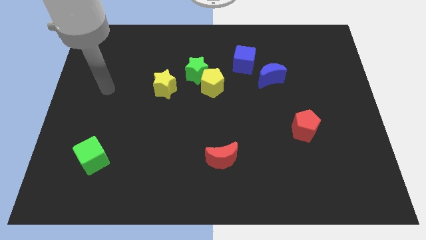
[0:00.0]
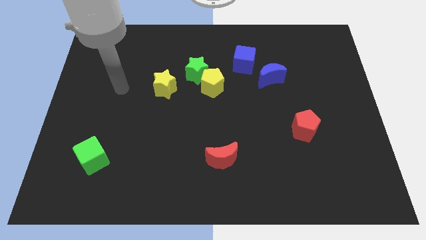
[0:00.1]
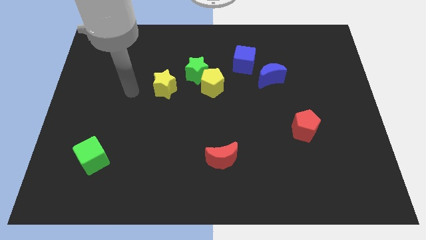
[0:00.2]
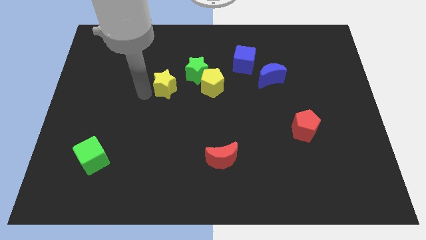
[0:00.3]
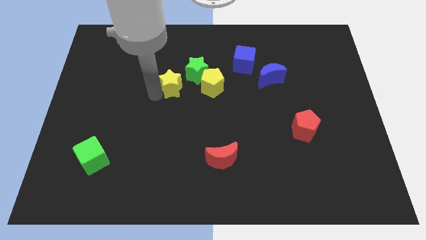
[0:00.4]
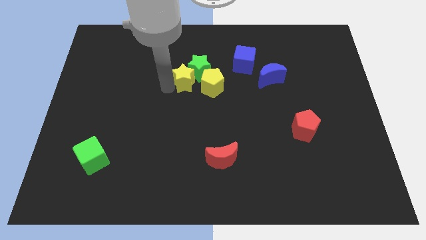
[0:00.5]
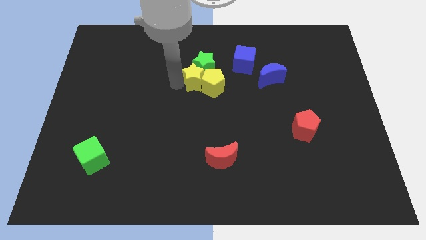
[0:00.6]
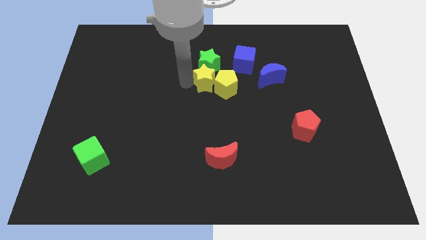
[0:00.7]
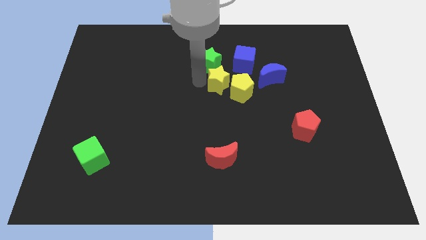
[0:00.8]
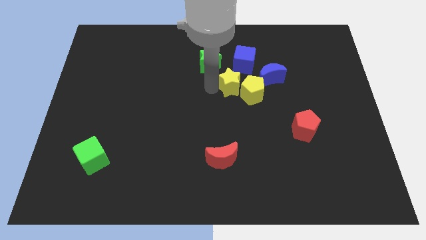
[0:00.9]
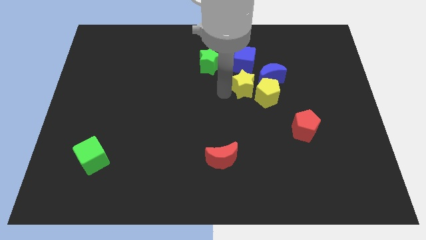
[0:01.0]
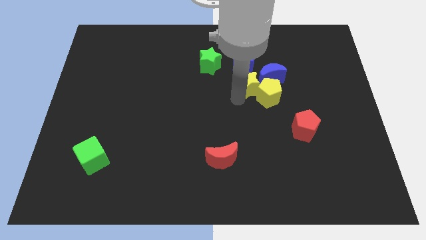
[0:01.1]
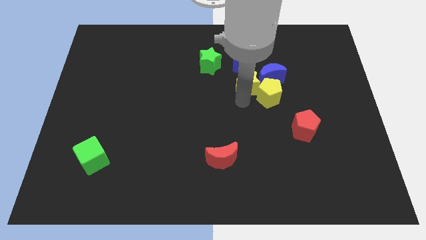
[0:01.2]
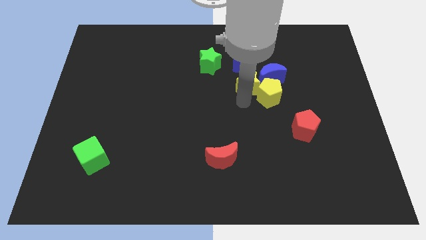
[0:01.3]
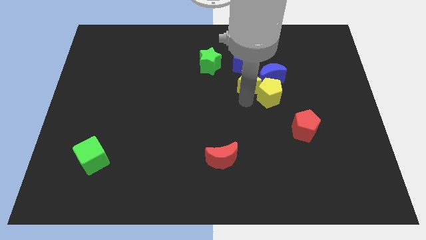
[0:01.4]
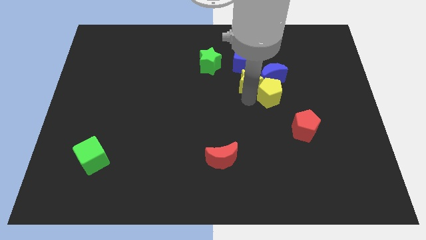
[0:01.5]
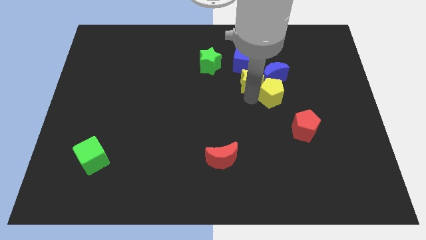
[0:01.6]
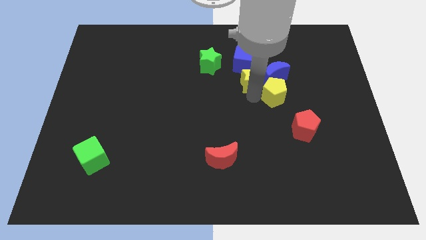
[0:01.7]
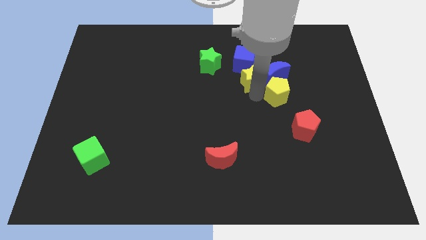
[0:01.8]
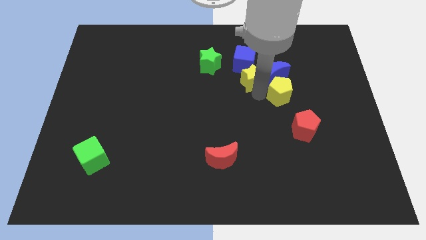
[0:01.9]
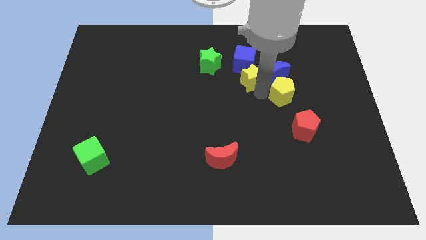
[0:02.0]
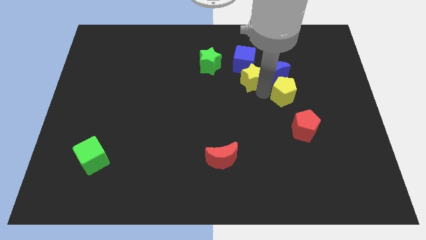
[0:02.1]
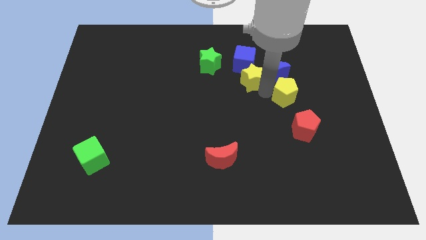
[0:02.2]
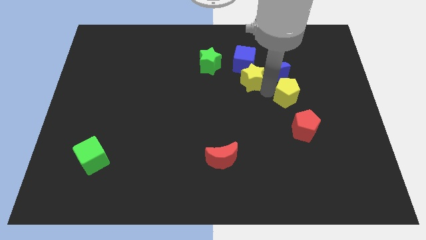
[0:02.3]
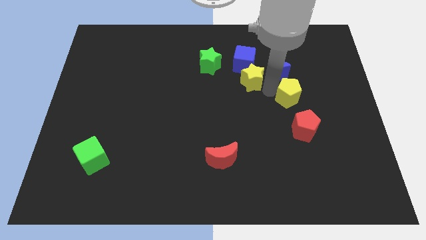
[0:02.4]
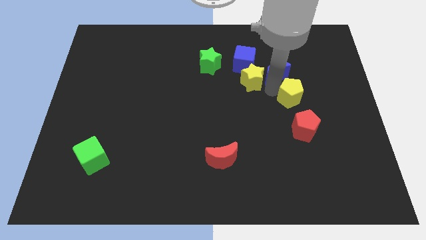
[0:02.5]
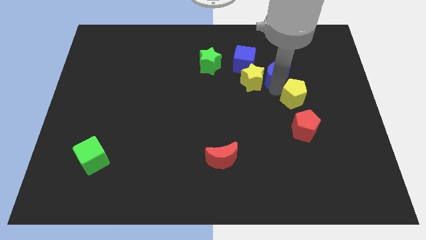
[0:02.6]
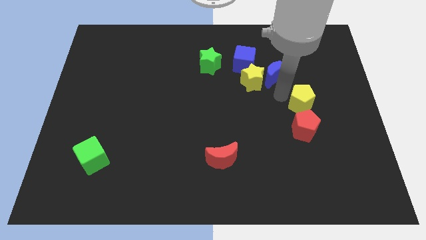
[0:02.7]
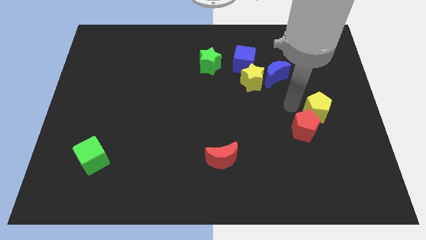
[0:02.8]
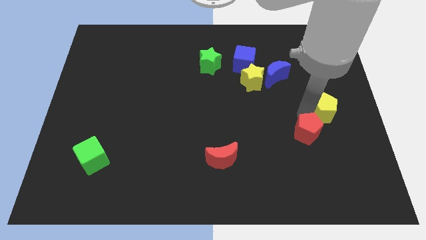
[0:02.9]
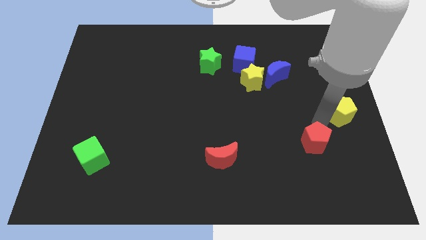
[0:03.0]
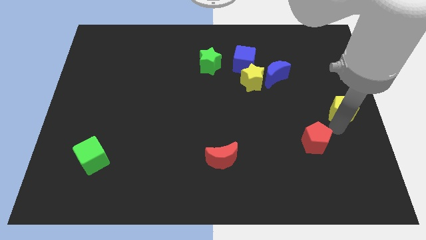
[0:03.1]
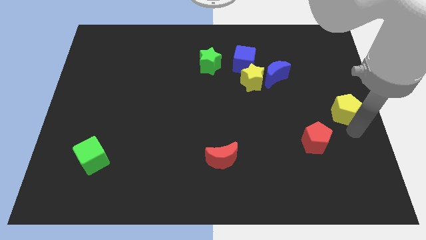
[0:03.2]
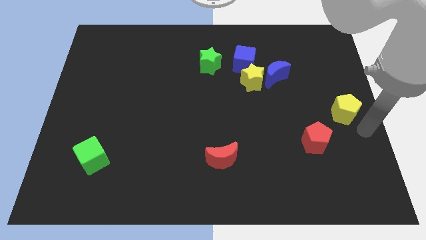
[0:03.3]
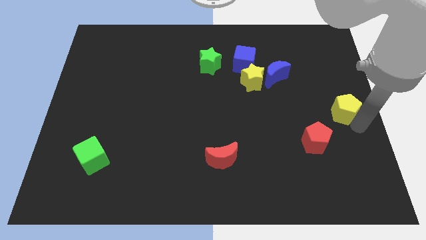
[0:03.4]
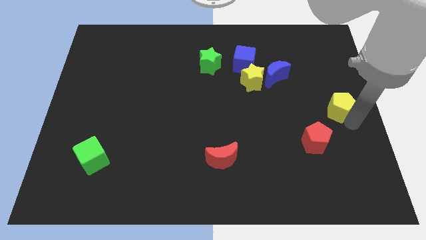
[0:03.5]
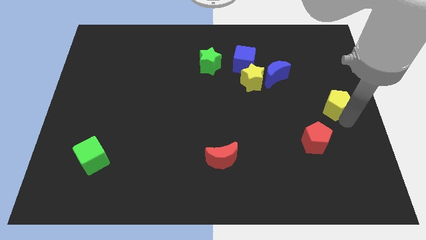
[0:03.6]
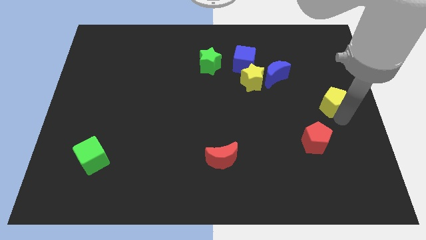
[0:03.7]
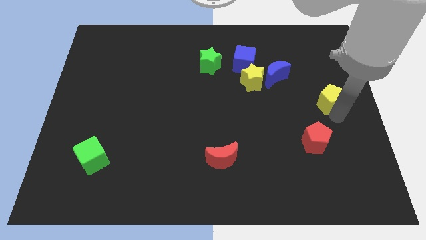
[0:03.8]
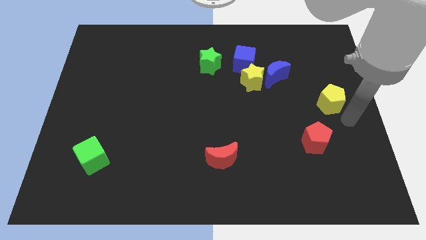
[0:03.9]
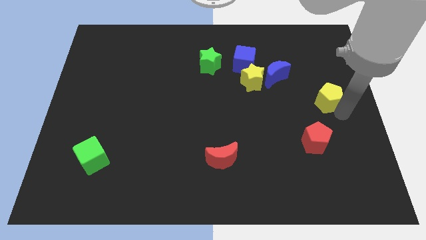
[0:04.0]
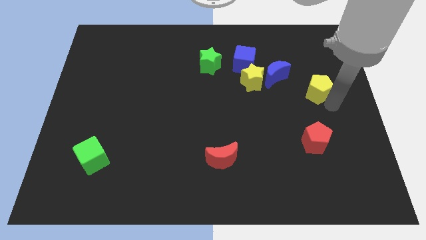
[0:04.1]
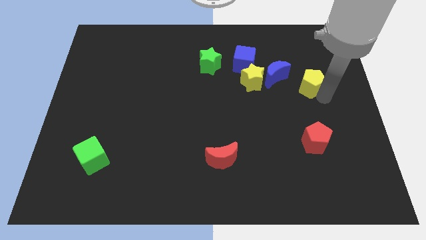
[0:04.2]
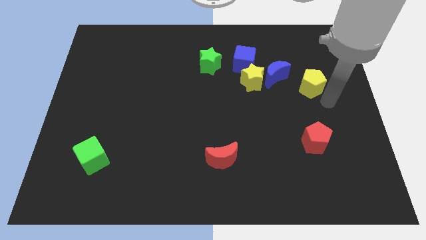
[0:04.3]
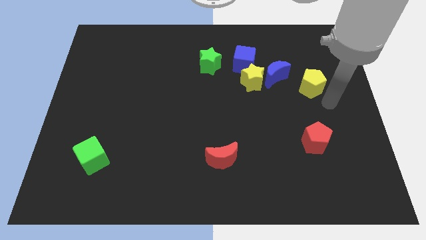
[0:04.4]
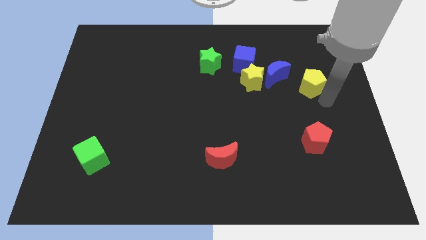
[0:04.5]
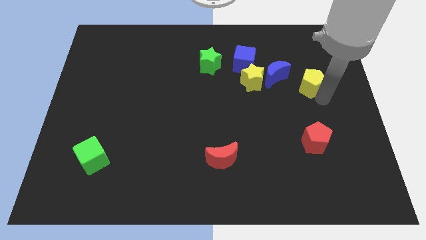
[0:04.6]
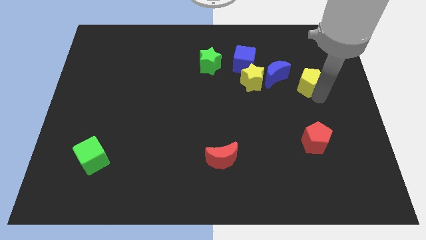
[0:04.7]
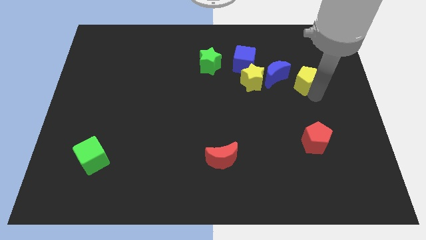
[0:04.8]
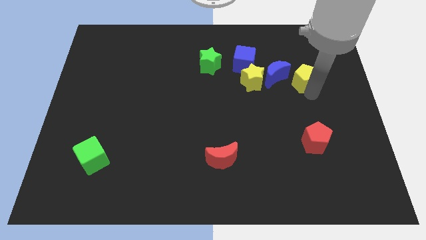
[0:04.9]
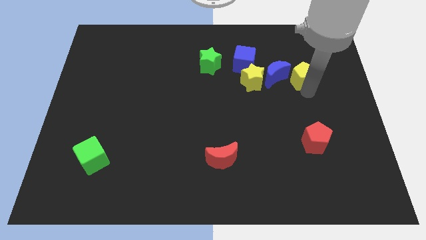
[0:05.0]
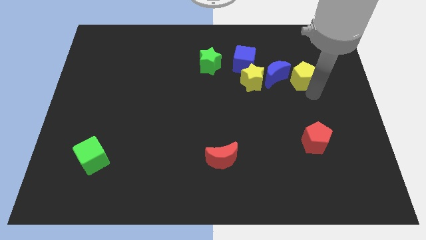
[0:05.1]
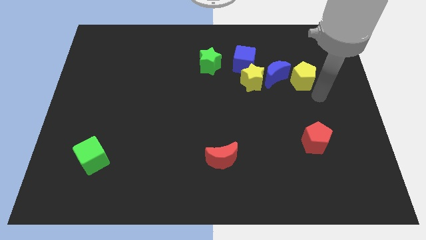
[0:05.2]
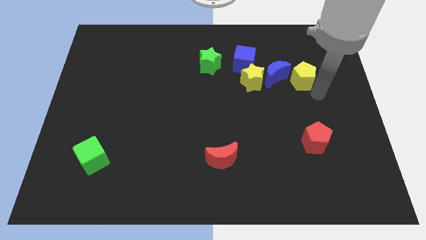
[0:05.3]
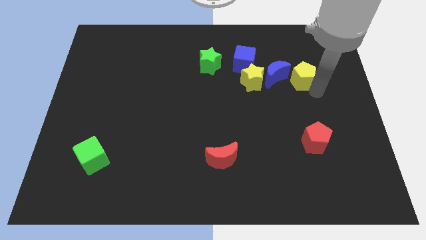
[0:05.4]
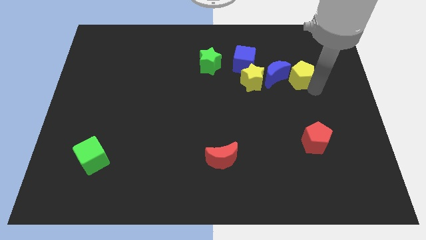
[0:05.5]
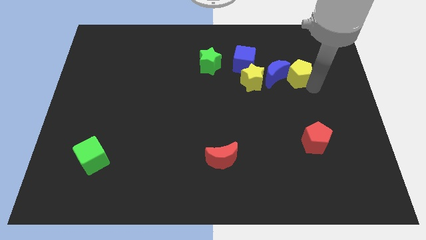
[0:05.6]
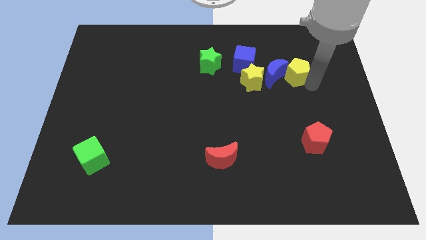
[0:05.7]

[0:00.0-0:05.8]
slide the yellow pentagon to the right side of the blue cube

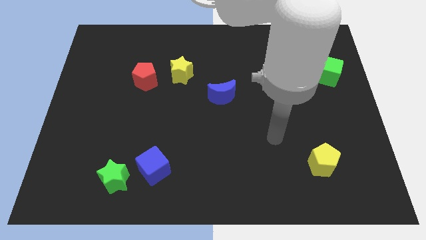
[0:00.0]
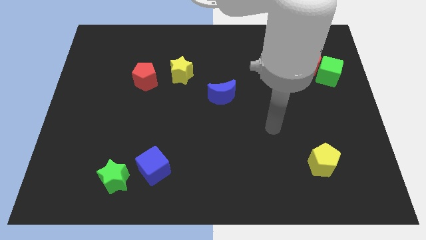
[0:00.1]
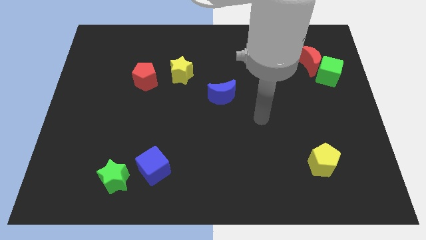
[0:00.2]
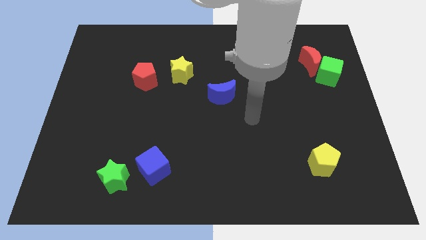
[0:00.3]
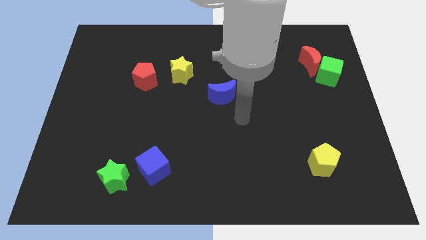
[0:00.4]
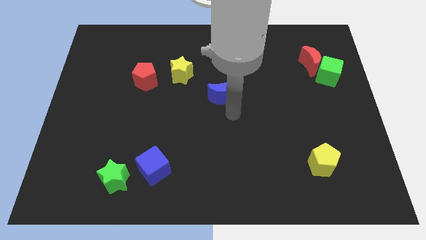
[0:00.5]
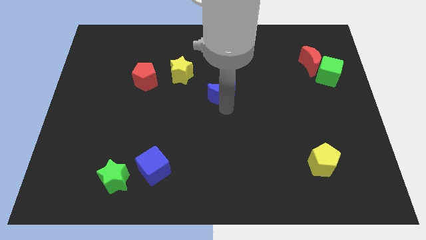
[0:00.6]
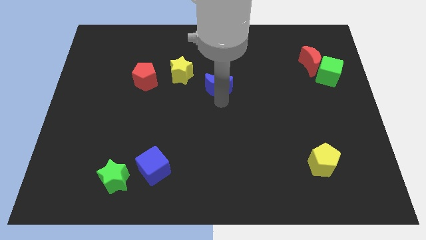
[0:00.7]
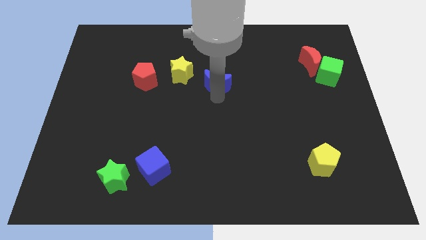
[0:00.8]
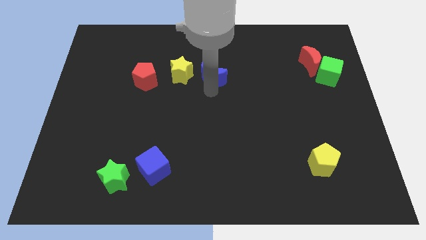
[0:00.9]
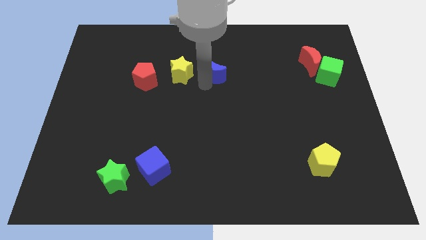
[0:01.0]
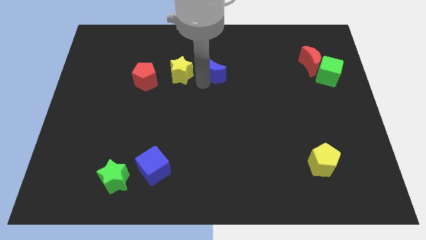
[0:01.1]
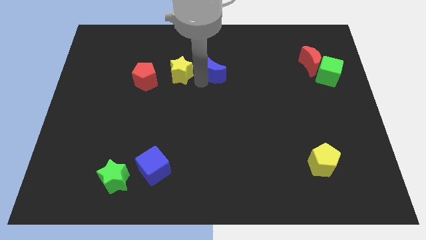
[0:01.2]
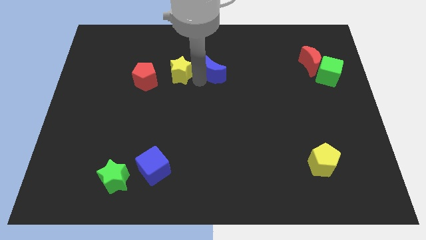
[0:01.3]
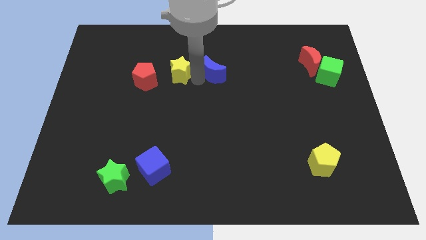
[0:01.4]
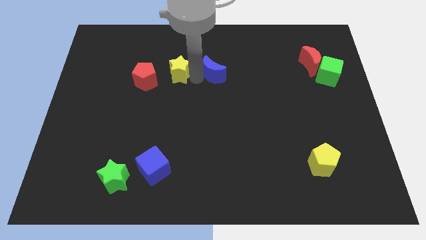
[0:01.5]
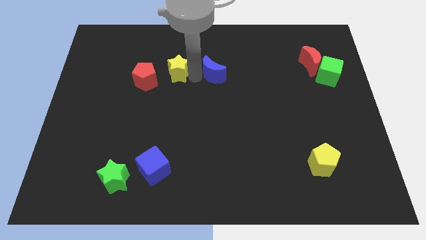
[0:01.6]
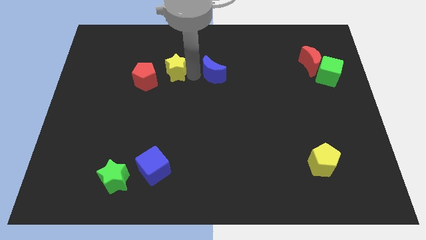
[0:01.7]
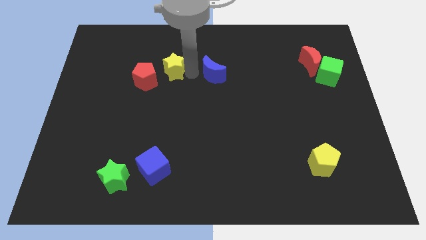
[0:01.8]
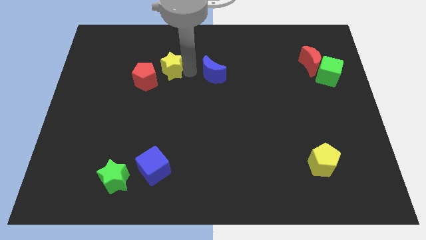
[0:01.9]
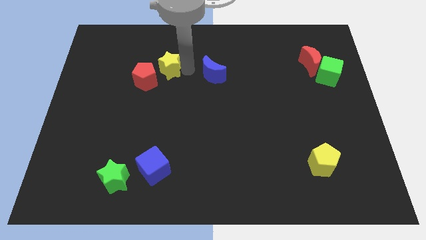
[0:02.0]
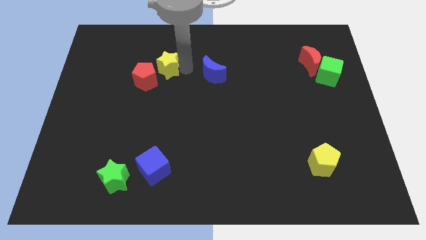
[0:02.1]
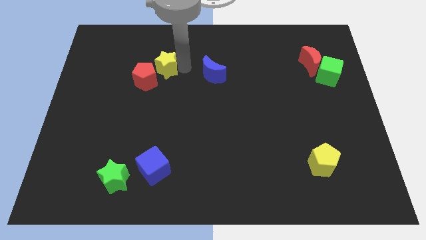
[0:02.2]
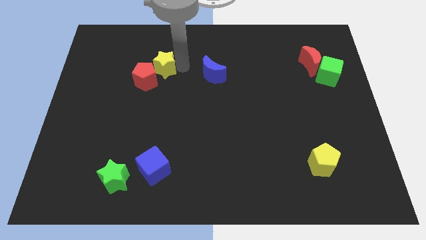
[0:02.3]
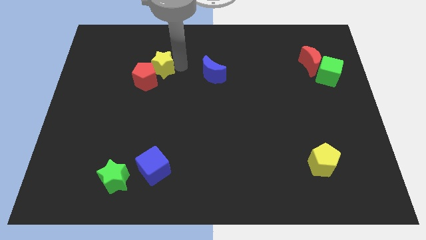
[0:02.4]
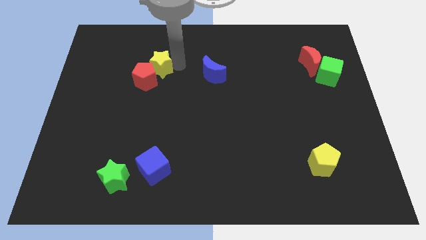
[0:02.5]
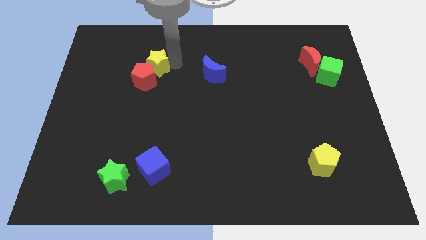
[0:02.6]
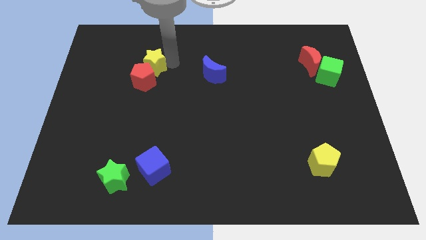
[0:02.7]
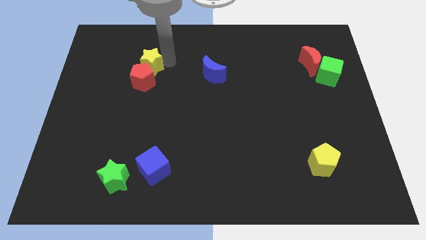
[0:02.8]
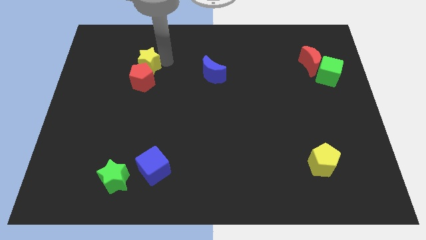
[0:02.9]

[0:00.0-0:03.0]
slide the yellow star diagonally up and to the left of the red pentagon

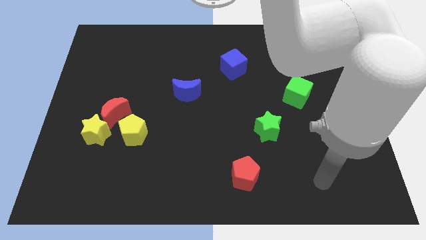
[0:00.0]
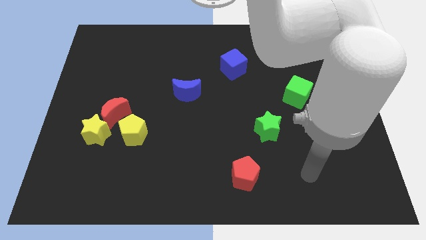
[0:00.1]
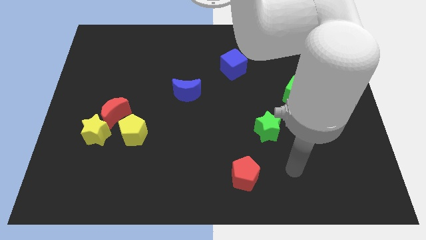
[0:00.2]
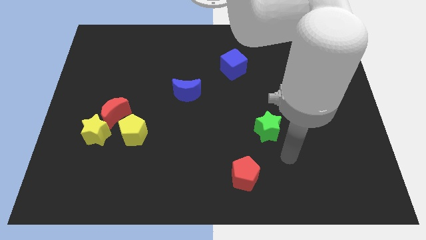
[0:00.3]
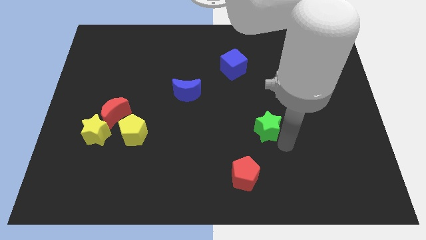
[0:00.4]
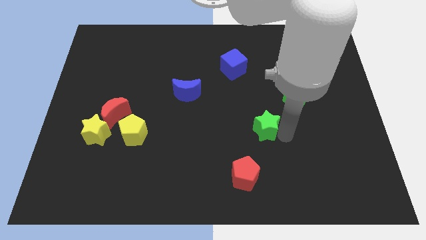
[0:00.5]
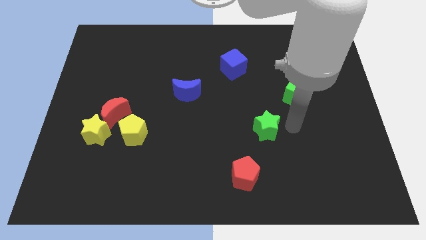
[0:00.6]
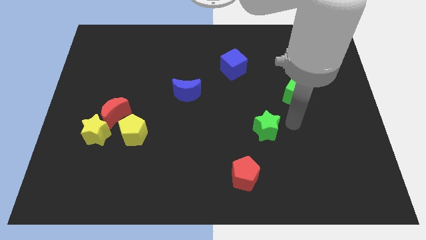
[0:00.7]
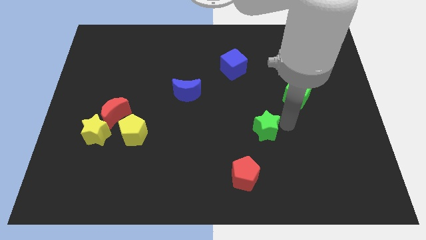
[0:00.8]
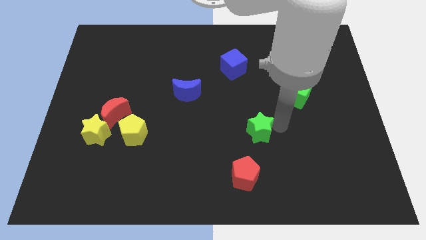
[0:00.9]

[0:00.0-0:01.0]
move the green star to the top of the red pentagon
